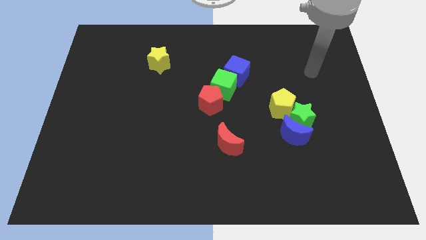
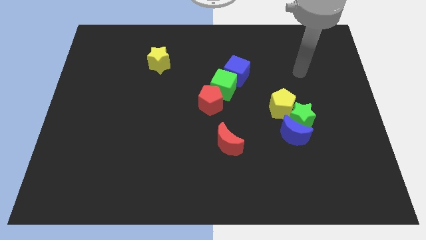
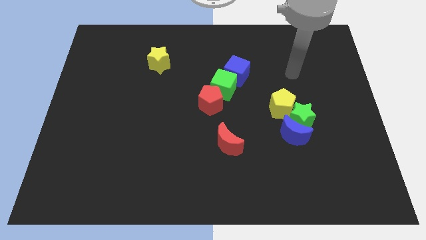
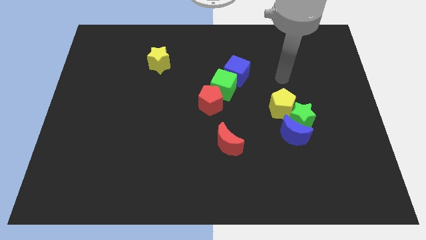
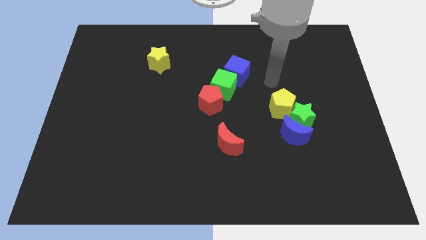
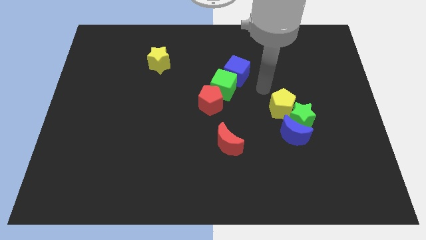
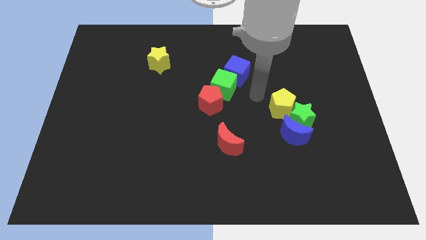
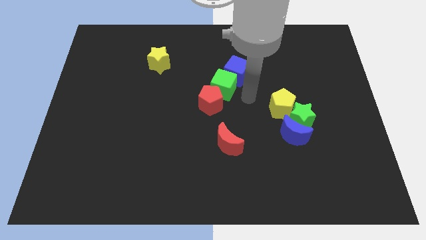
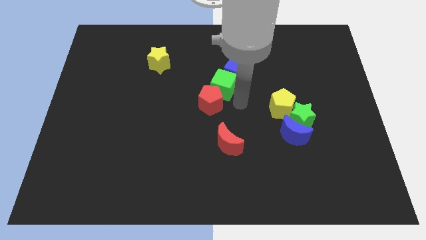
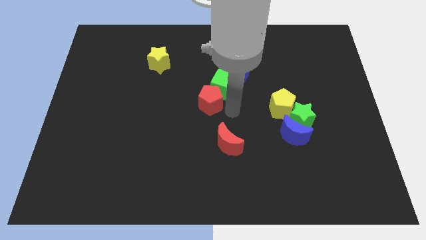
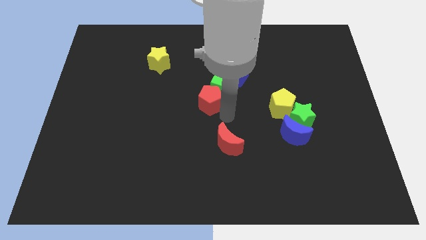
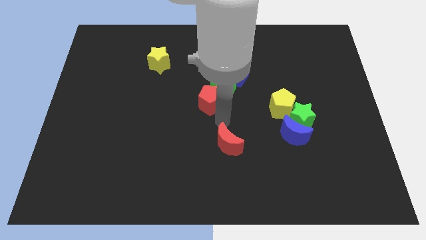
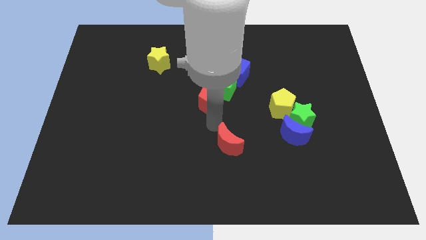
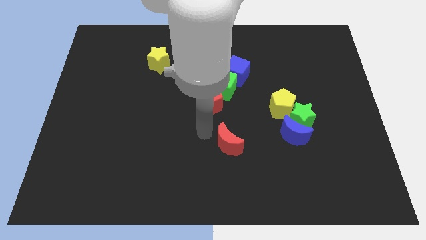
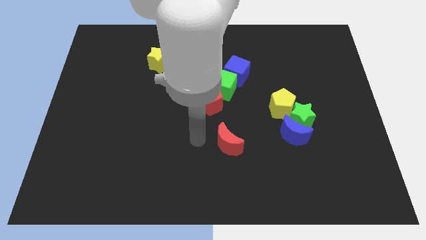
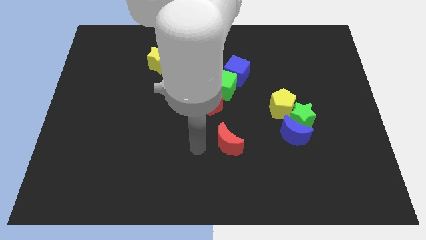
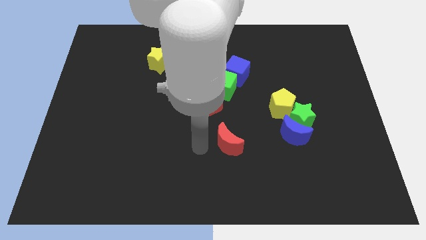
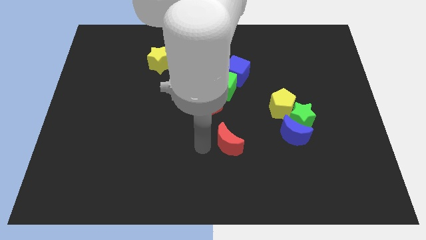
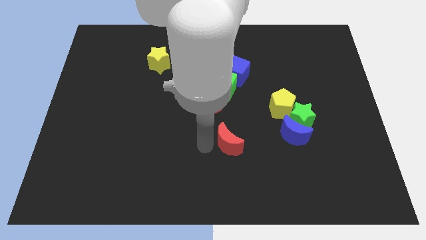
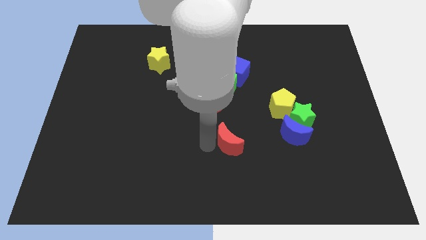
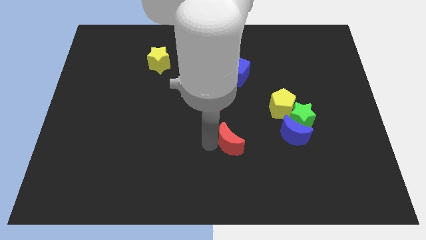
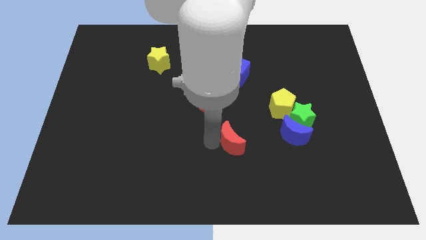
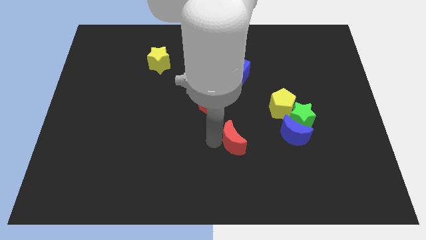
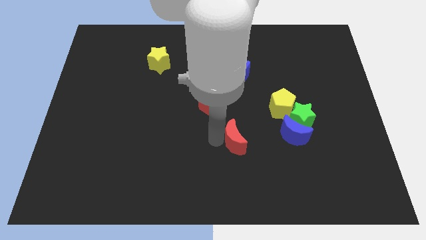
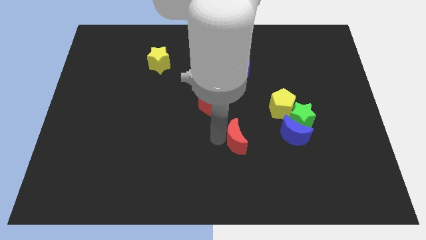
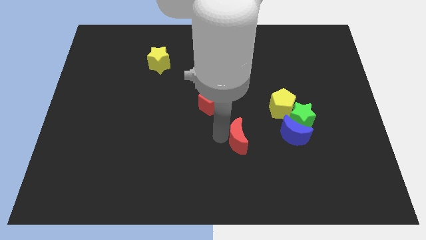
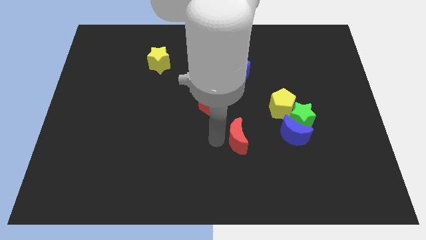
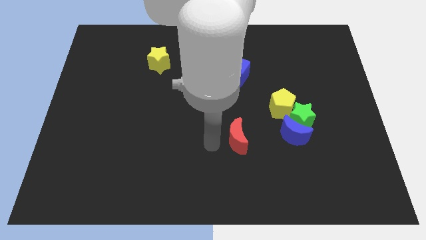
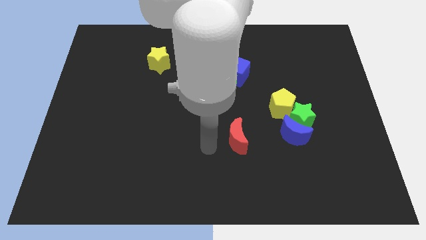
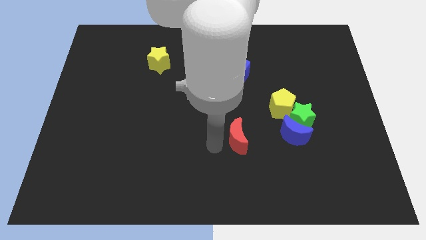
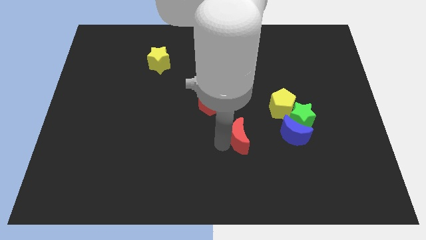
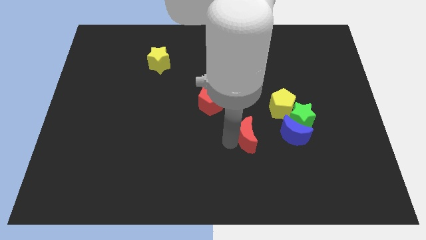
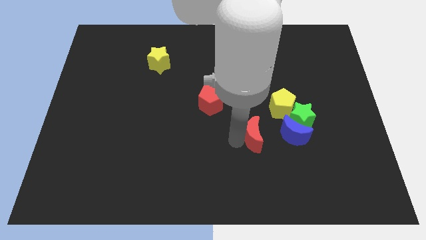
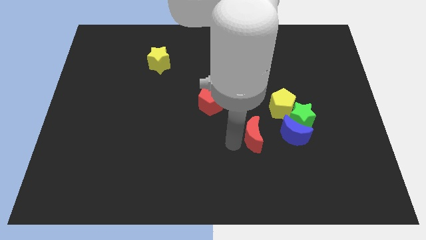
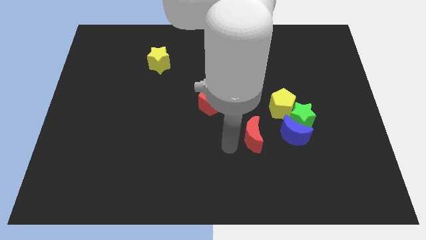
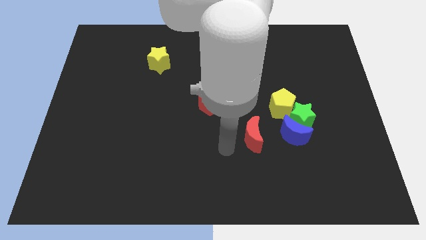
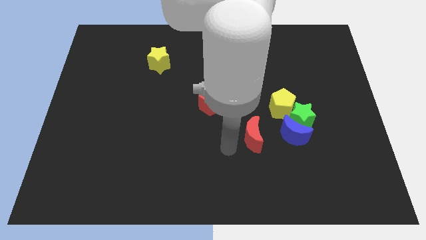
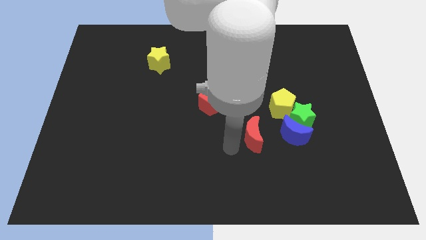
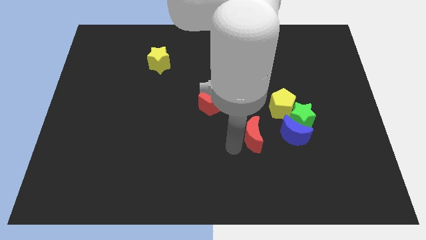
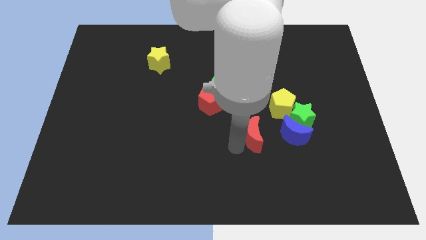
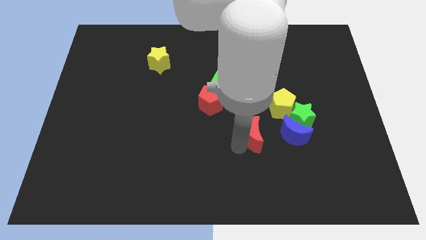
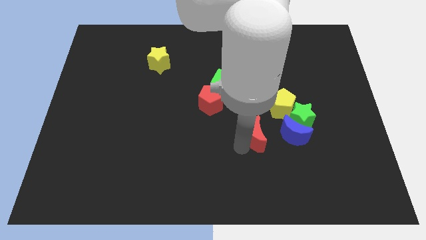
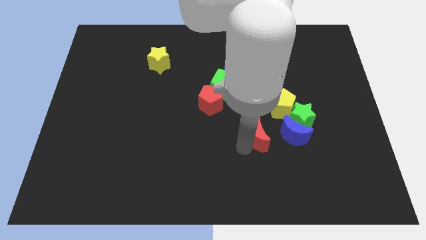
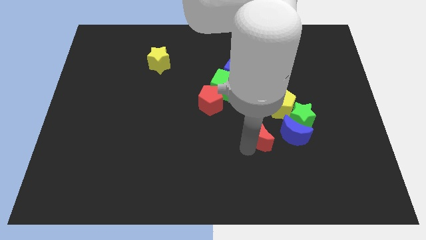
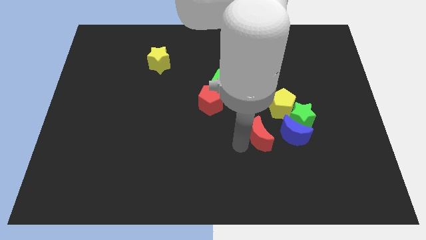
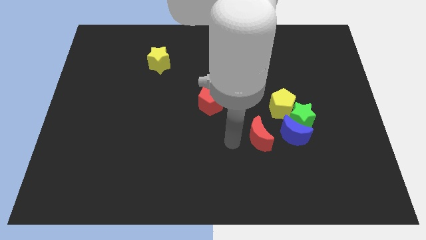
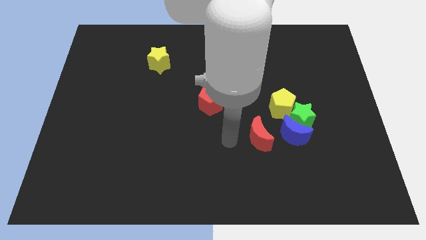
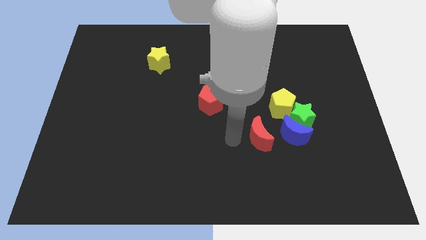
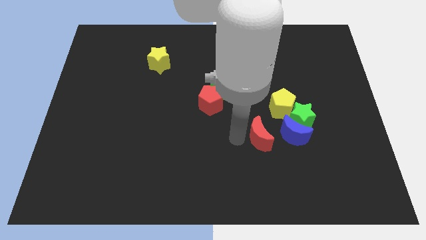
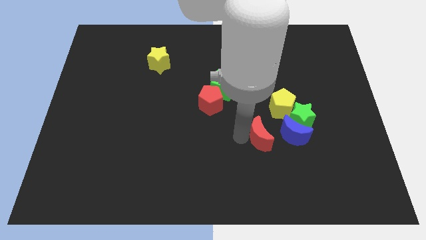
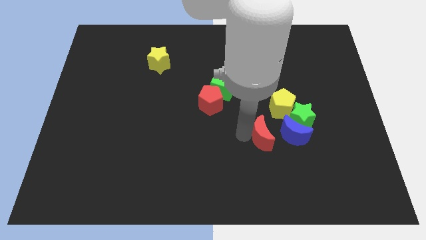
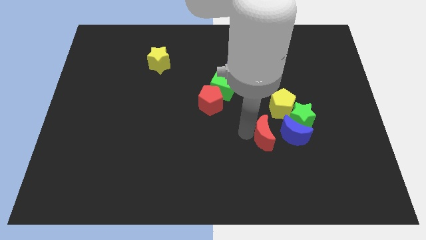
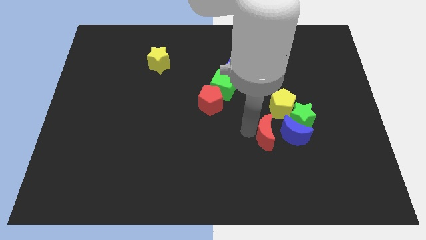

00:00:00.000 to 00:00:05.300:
move the red moon towards the blue moon

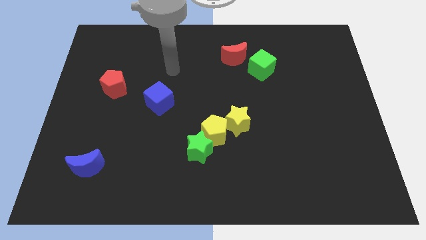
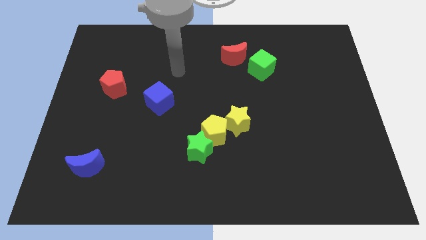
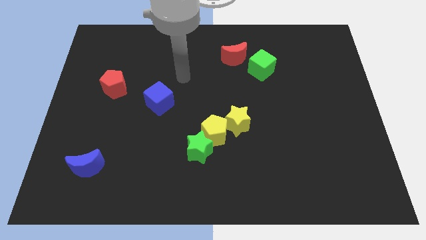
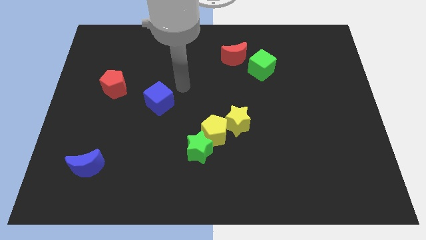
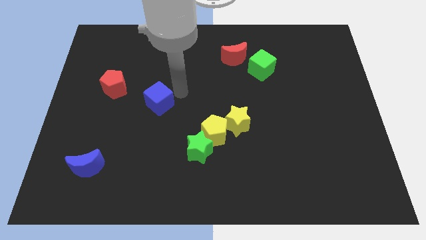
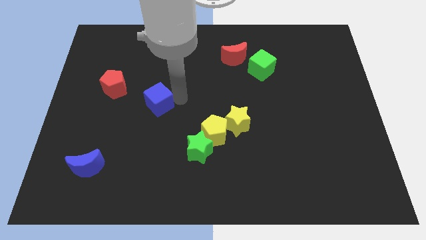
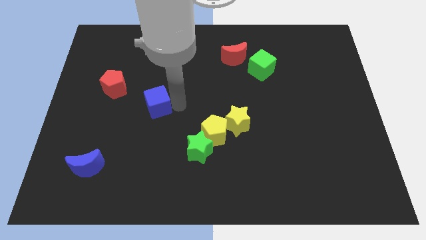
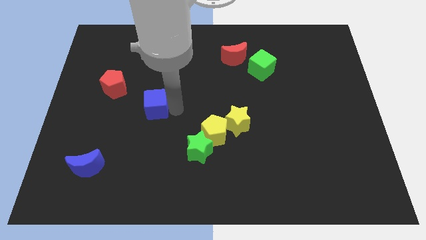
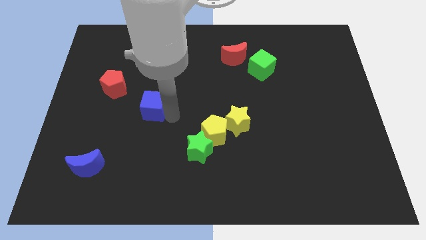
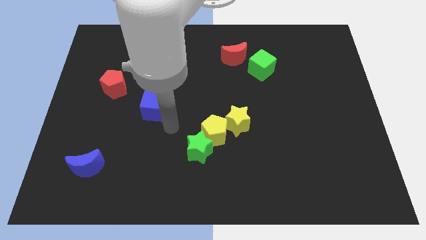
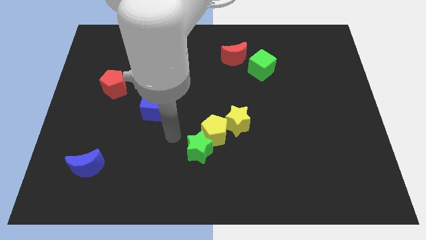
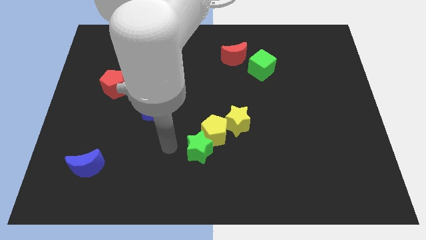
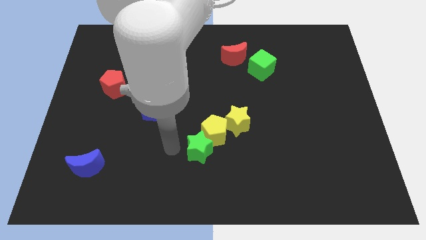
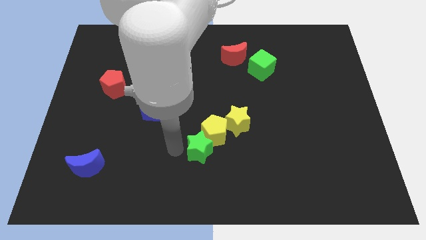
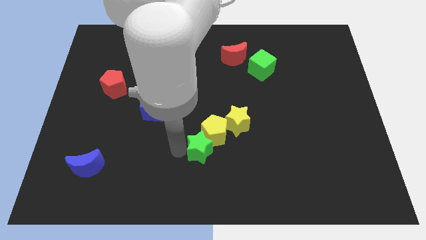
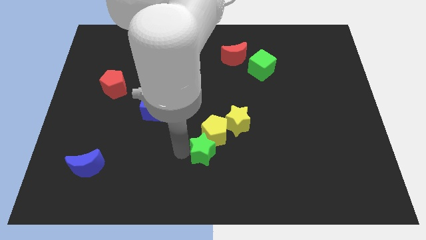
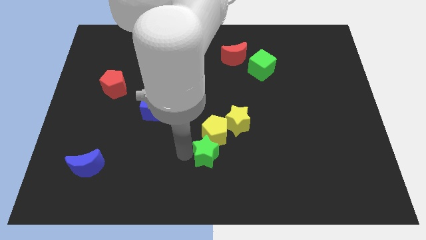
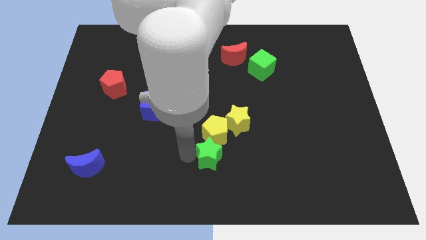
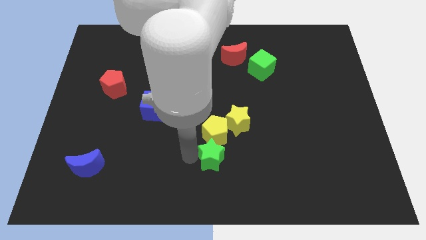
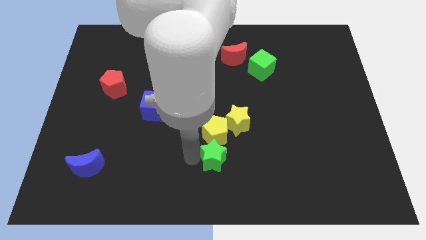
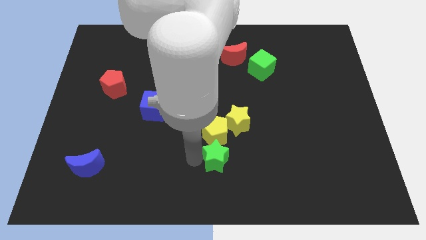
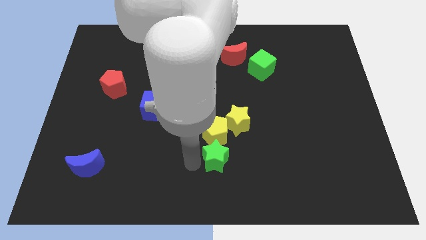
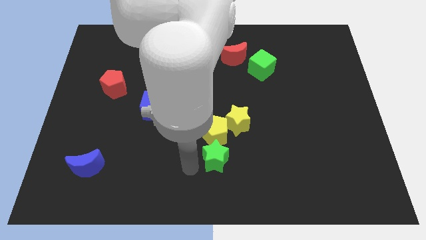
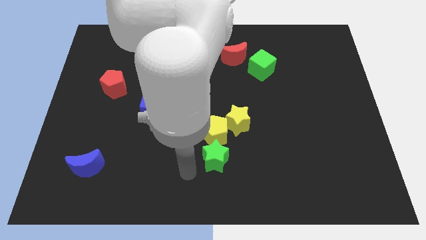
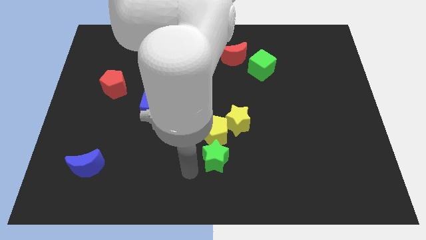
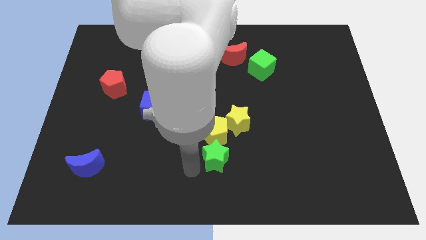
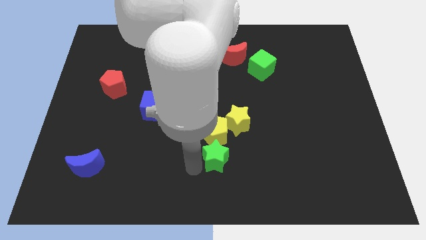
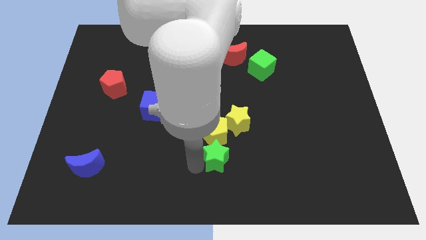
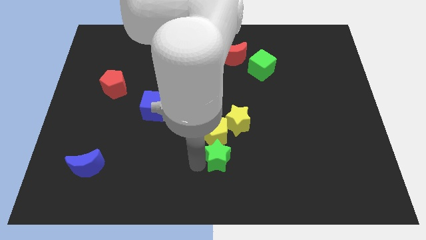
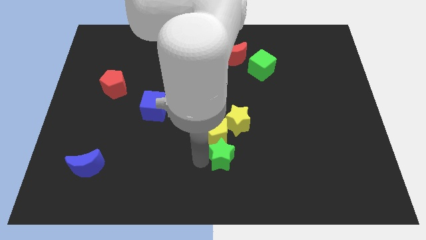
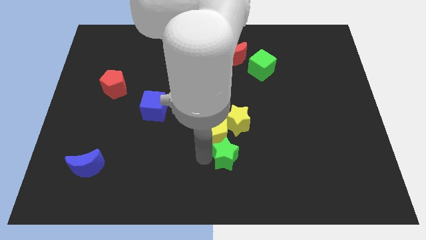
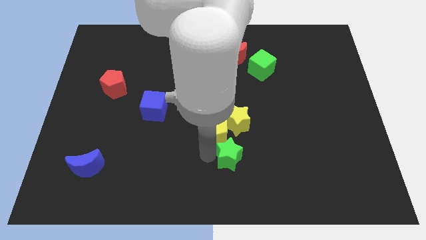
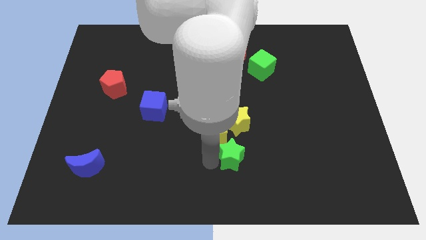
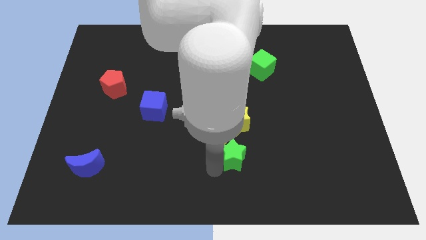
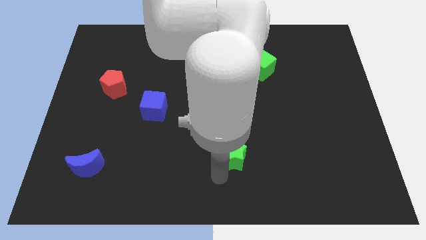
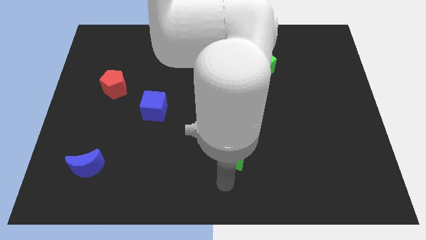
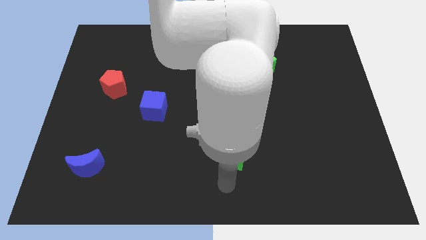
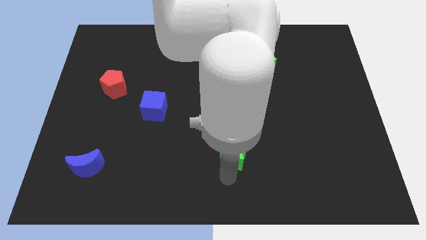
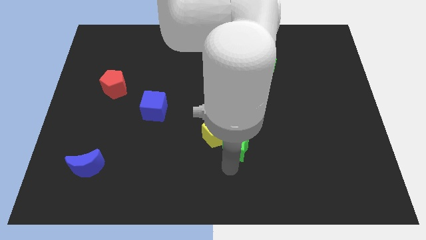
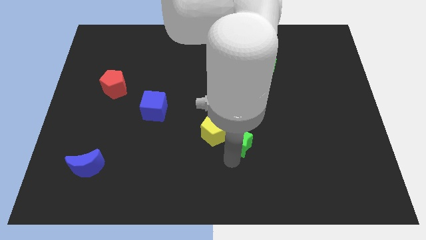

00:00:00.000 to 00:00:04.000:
slide the green star to the yellow star
